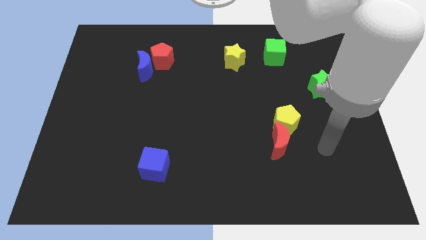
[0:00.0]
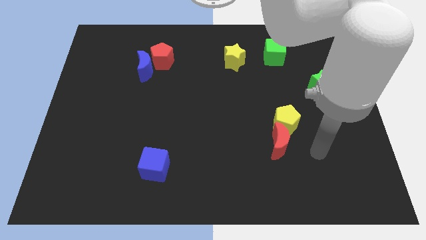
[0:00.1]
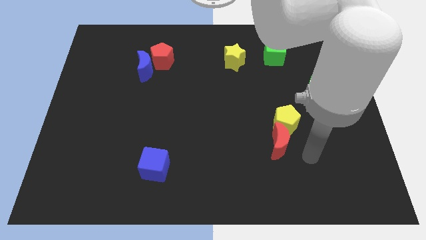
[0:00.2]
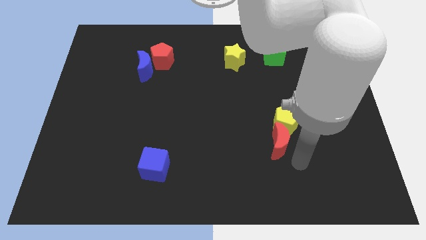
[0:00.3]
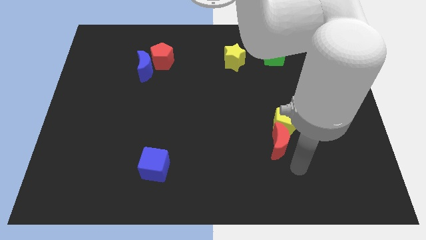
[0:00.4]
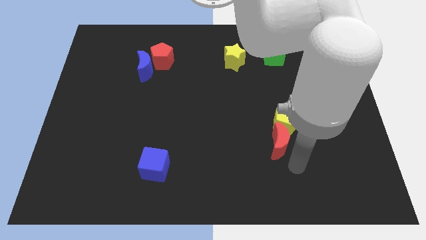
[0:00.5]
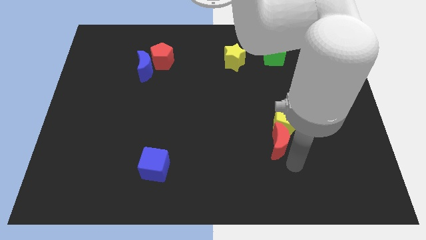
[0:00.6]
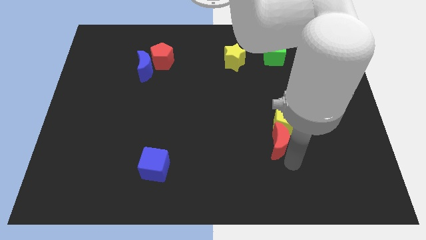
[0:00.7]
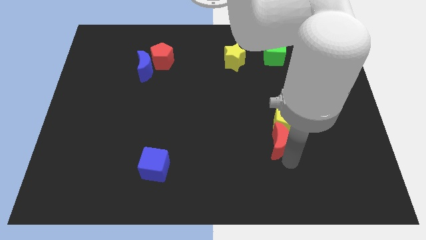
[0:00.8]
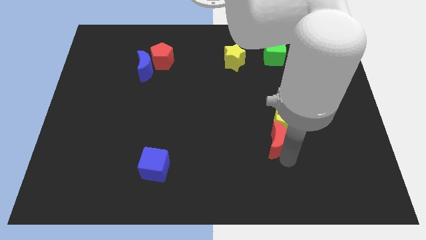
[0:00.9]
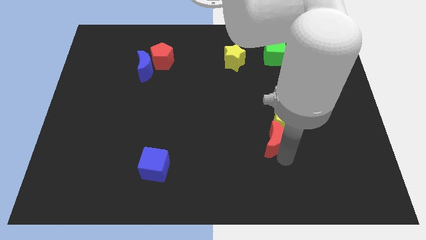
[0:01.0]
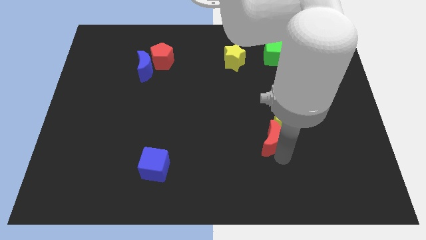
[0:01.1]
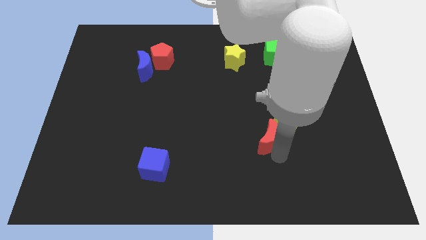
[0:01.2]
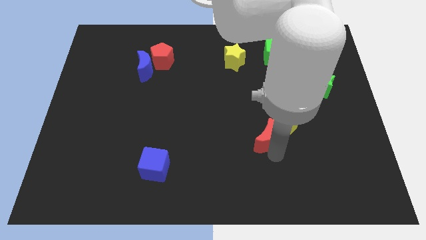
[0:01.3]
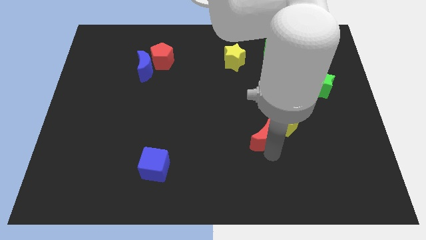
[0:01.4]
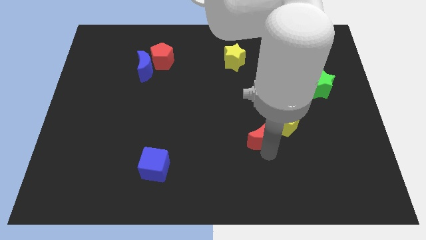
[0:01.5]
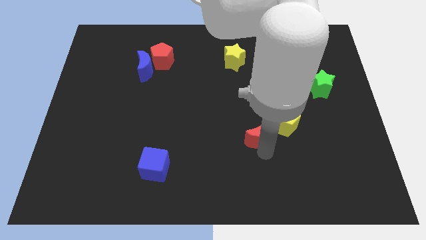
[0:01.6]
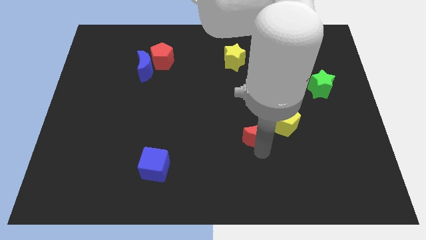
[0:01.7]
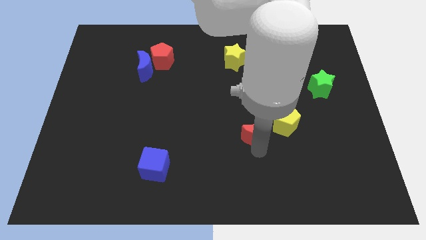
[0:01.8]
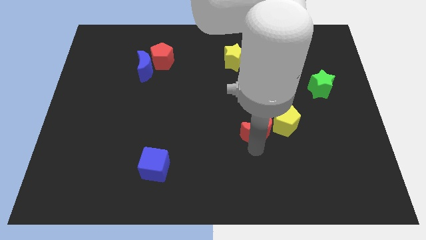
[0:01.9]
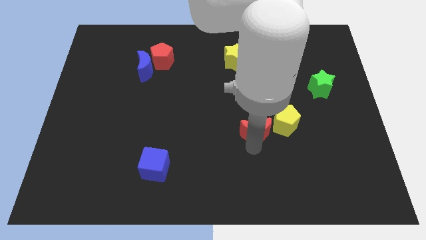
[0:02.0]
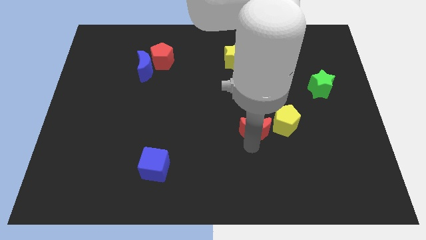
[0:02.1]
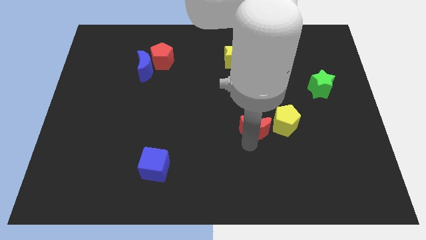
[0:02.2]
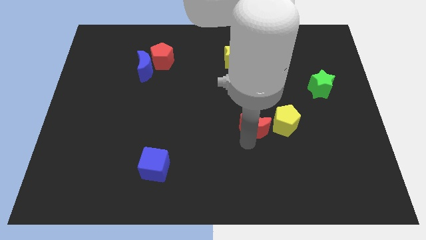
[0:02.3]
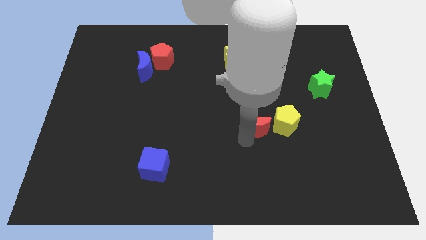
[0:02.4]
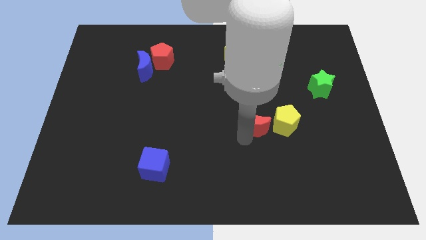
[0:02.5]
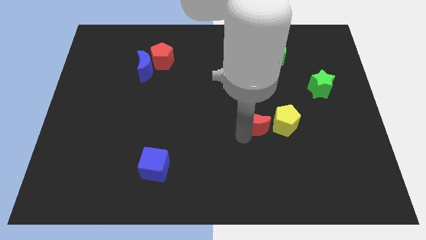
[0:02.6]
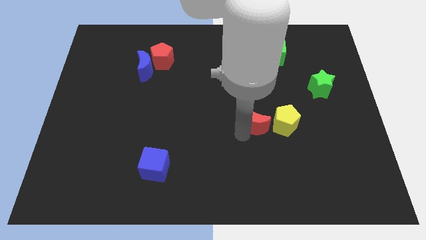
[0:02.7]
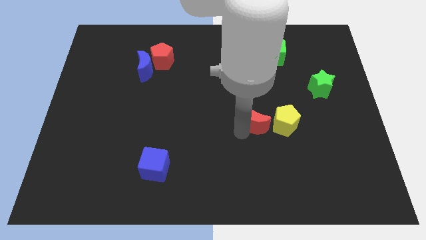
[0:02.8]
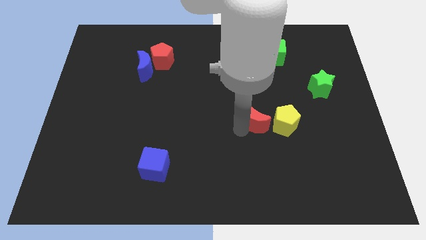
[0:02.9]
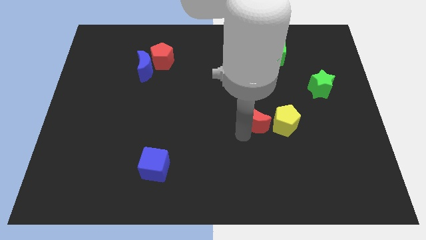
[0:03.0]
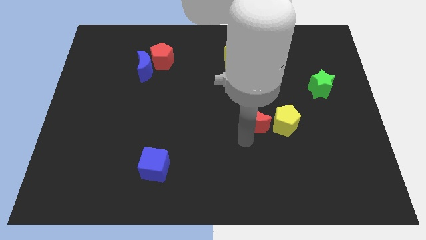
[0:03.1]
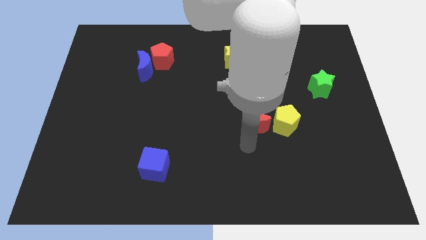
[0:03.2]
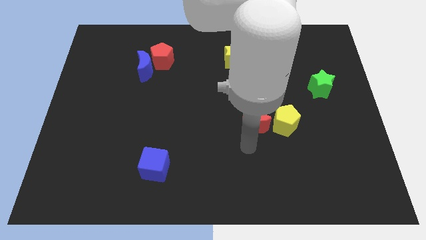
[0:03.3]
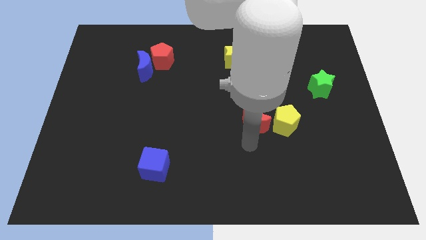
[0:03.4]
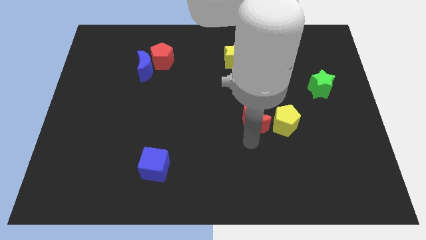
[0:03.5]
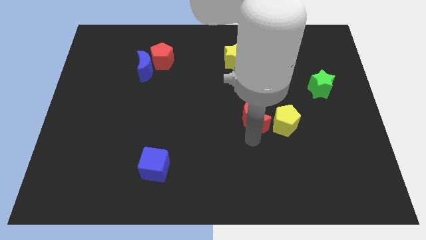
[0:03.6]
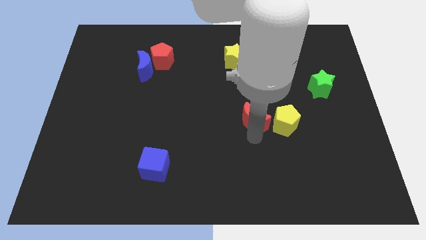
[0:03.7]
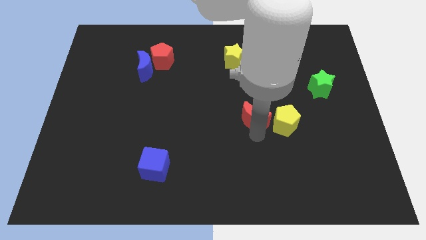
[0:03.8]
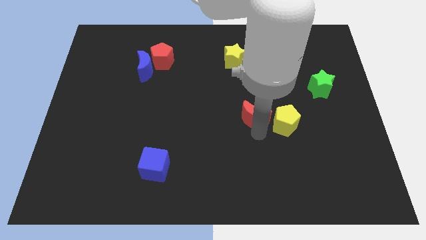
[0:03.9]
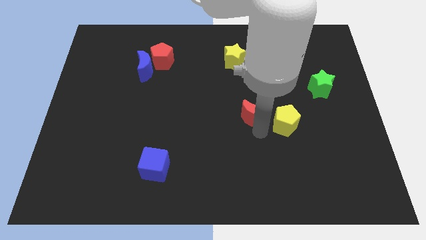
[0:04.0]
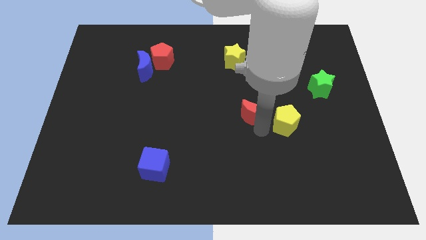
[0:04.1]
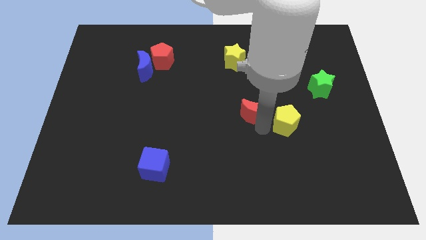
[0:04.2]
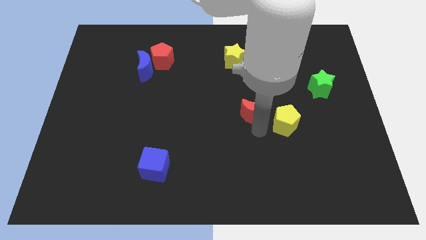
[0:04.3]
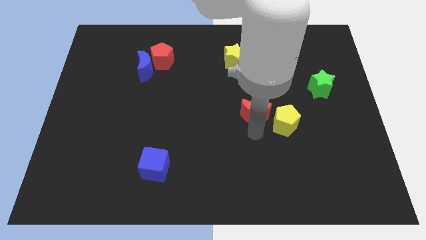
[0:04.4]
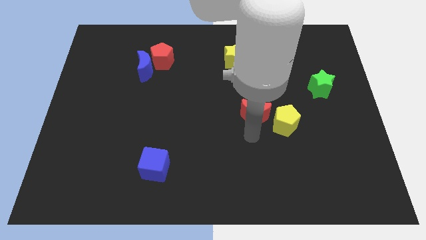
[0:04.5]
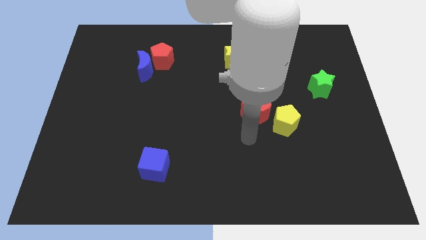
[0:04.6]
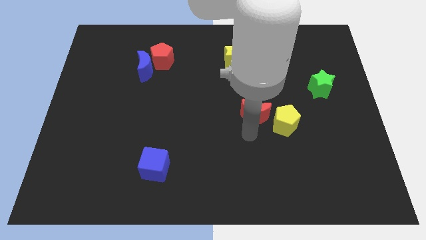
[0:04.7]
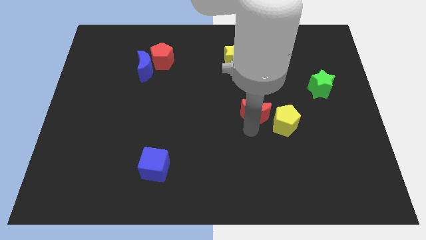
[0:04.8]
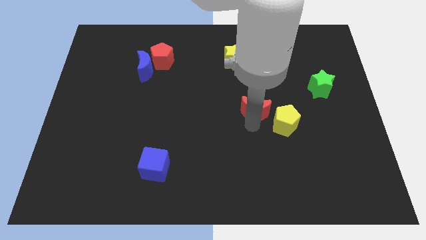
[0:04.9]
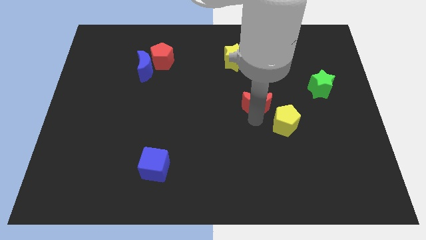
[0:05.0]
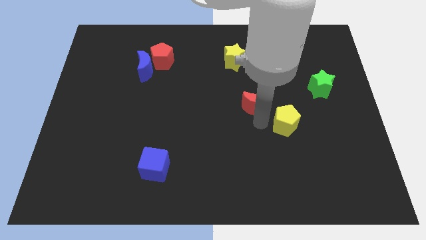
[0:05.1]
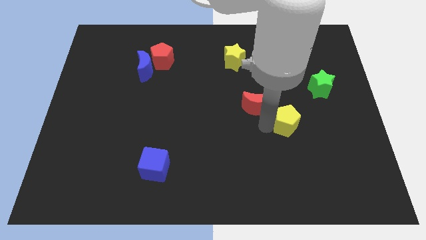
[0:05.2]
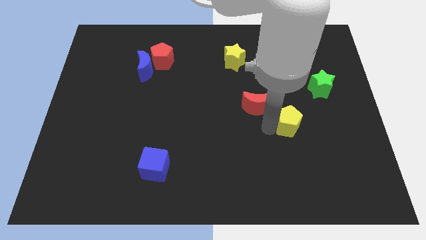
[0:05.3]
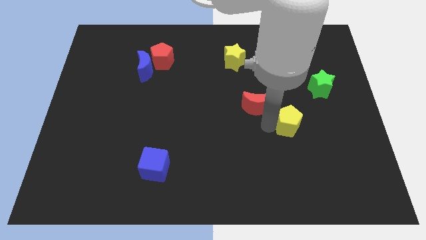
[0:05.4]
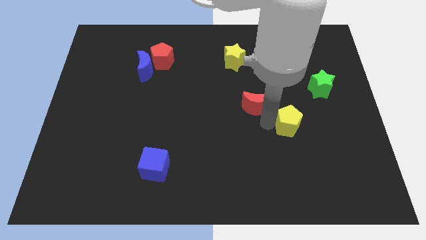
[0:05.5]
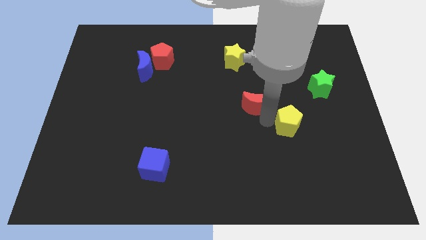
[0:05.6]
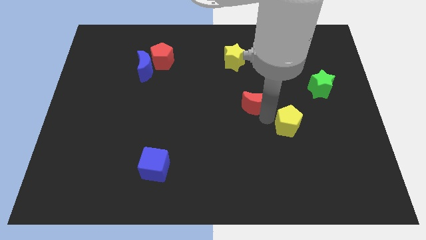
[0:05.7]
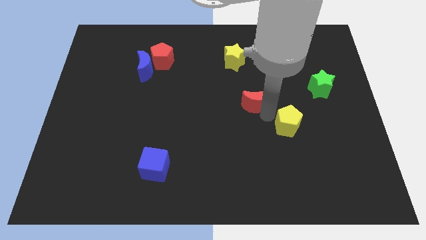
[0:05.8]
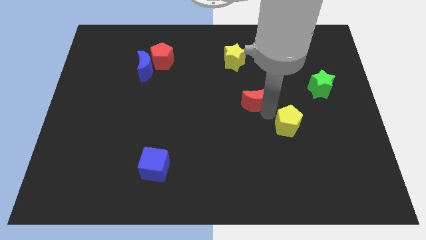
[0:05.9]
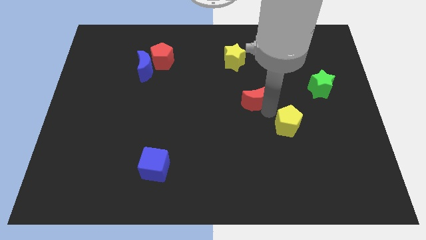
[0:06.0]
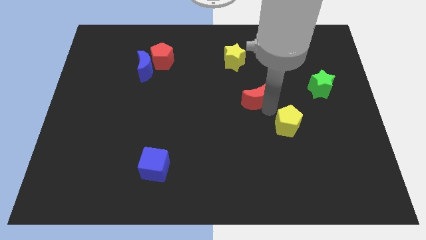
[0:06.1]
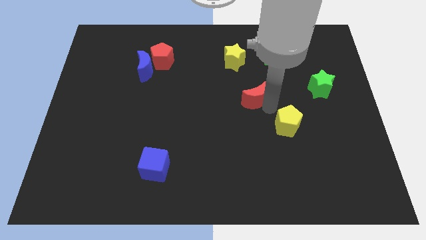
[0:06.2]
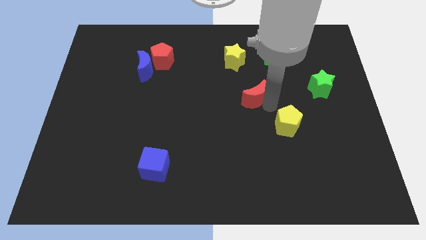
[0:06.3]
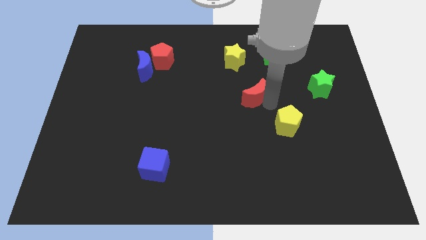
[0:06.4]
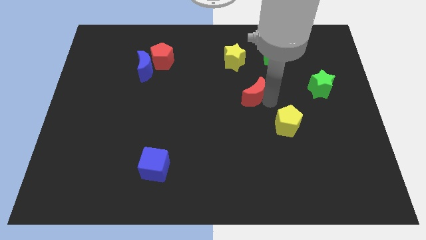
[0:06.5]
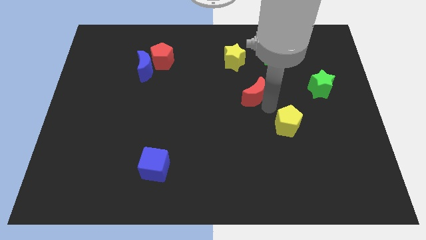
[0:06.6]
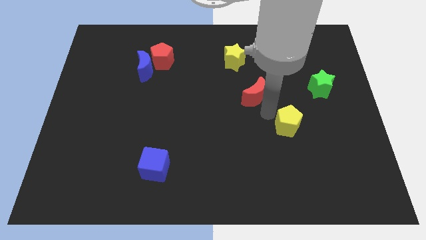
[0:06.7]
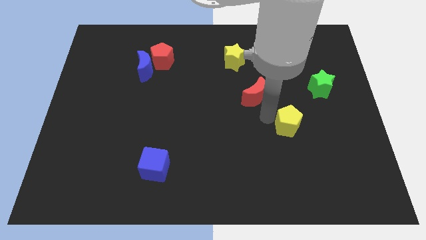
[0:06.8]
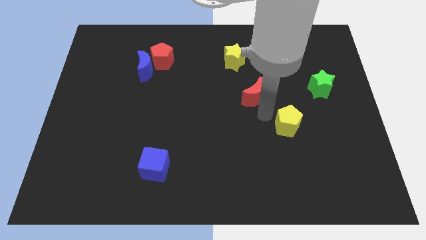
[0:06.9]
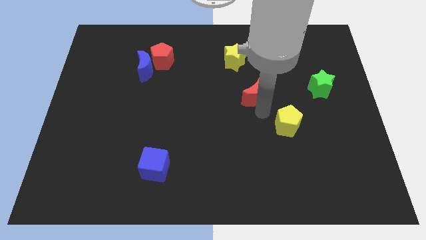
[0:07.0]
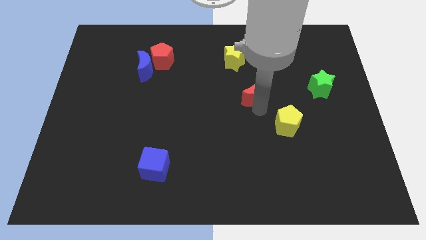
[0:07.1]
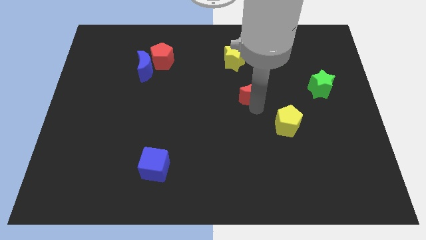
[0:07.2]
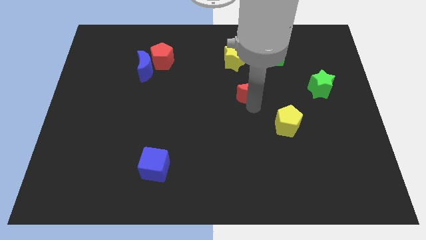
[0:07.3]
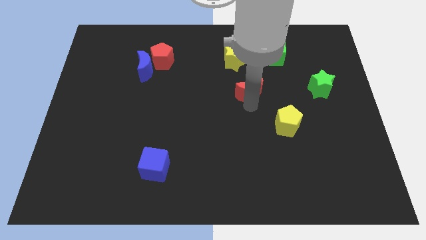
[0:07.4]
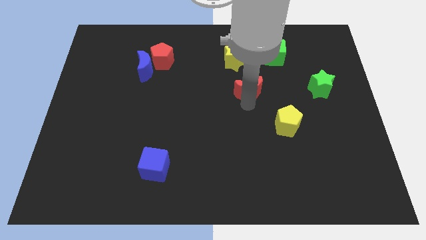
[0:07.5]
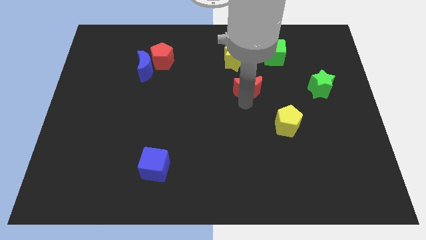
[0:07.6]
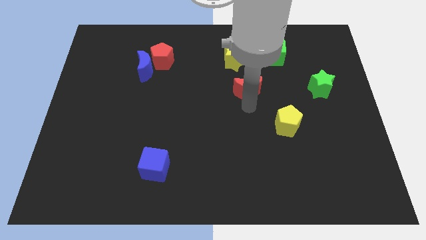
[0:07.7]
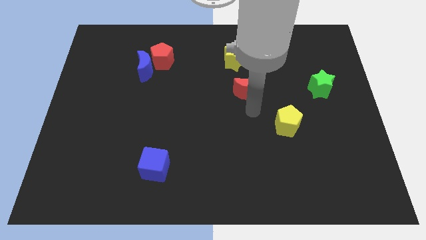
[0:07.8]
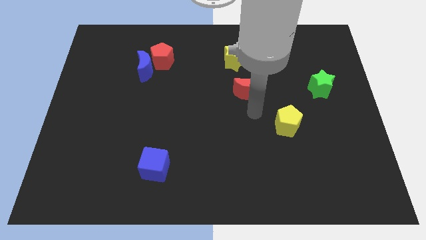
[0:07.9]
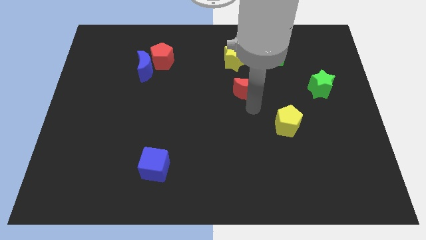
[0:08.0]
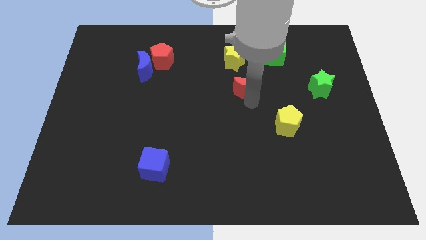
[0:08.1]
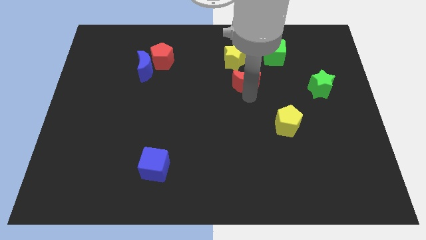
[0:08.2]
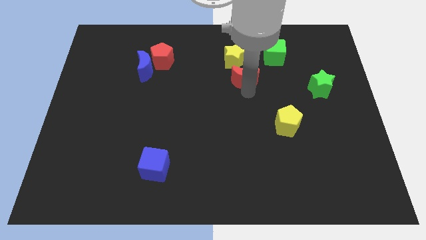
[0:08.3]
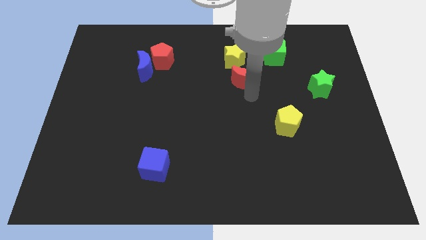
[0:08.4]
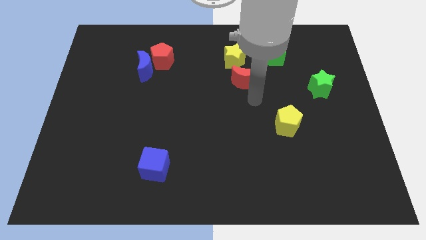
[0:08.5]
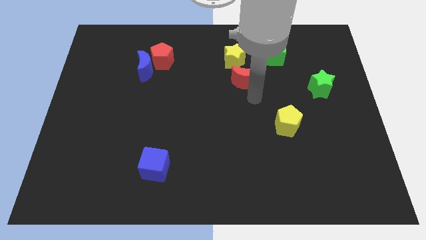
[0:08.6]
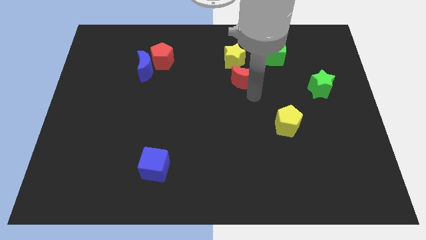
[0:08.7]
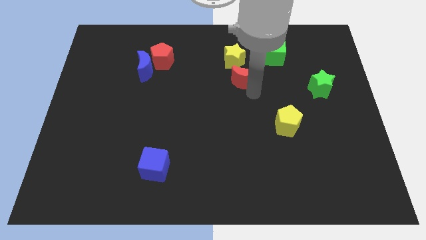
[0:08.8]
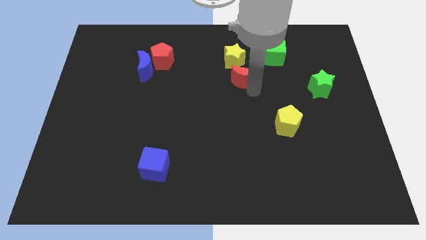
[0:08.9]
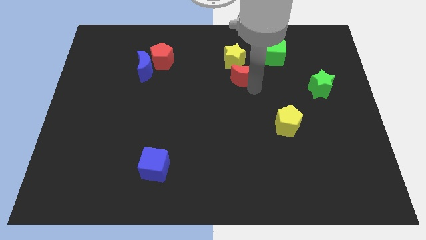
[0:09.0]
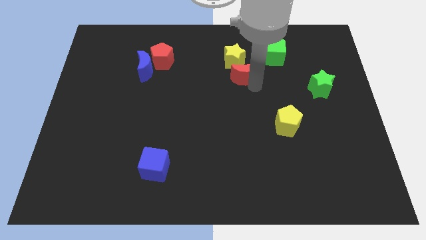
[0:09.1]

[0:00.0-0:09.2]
put the red moon close to the yellow star
